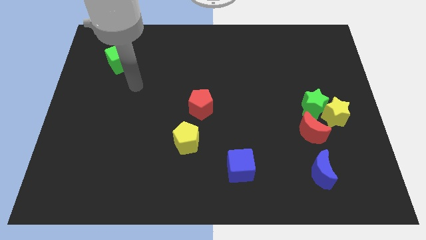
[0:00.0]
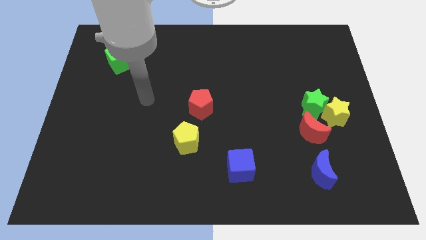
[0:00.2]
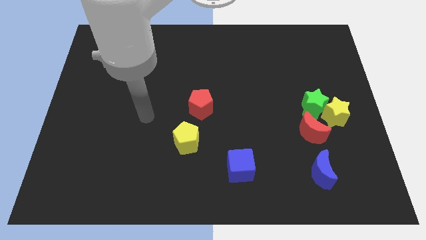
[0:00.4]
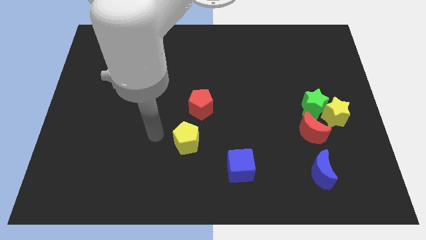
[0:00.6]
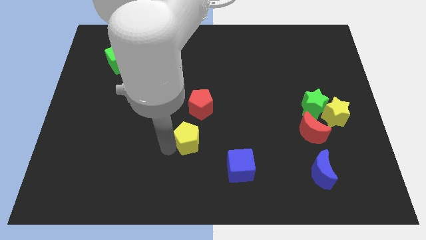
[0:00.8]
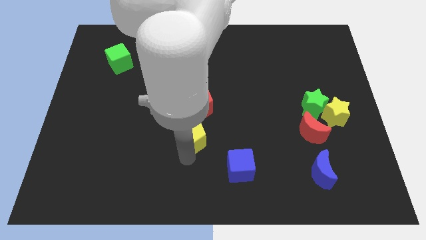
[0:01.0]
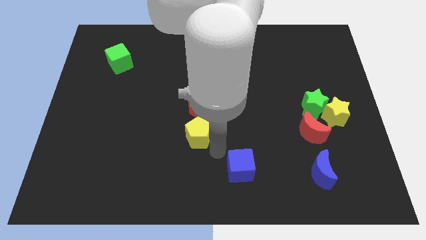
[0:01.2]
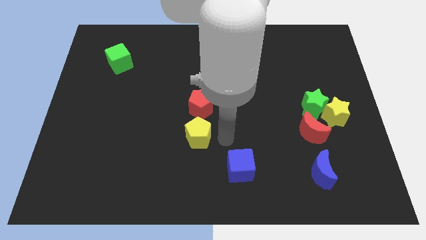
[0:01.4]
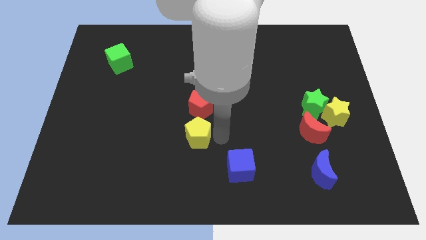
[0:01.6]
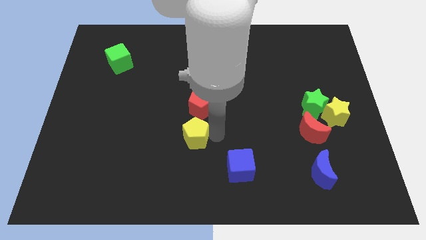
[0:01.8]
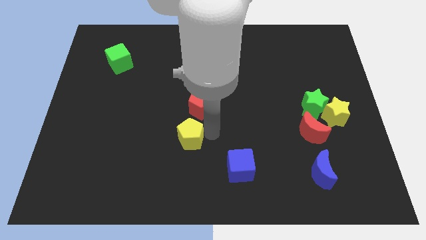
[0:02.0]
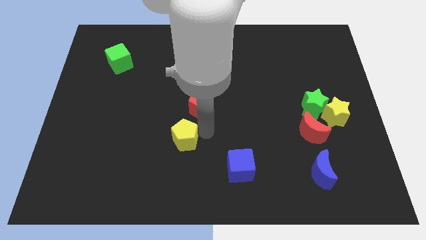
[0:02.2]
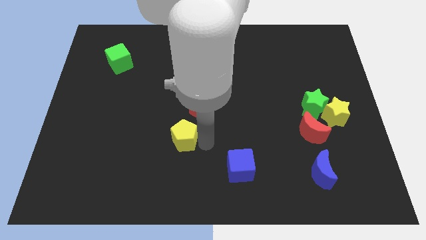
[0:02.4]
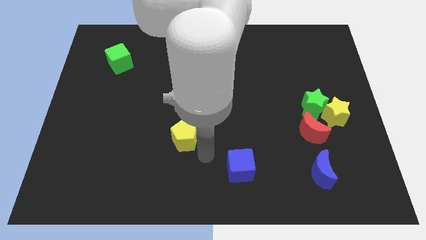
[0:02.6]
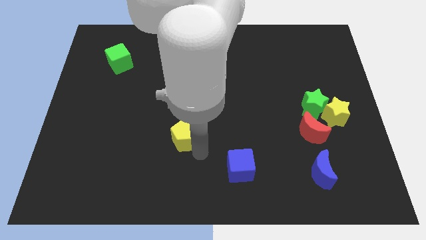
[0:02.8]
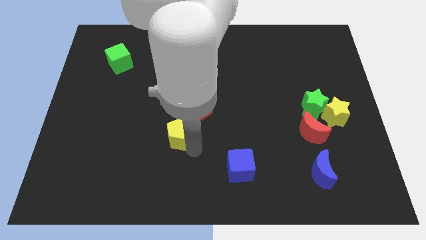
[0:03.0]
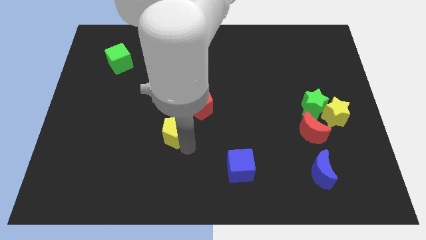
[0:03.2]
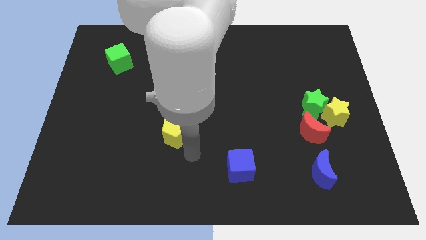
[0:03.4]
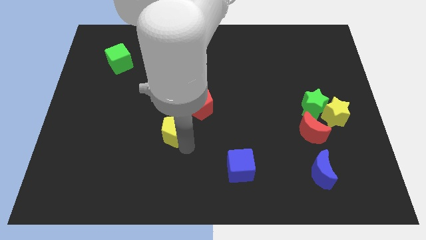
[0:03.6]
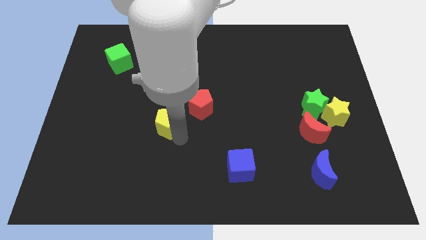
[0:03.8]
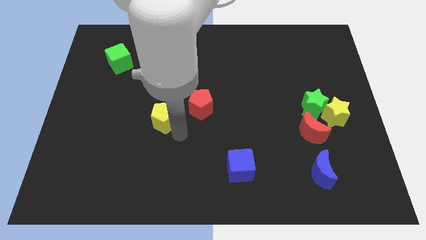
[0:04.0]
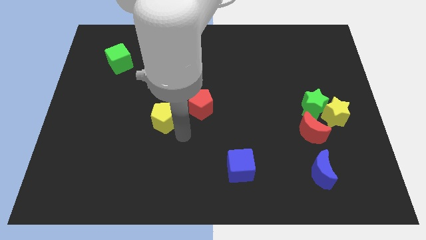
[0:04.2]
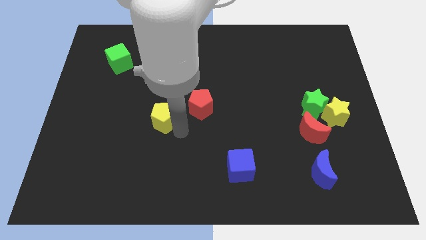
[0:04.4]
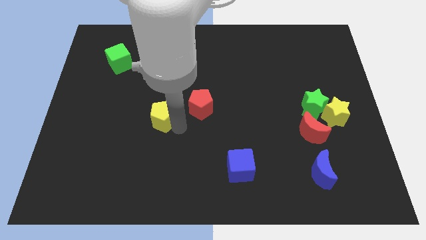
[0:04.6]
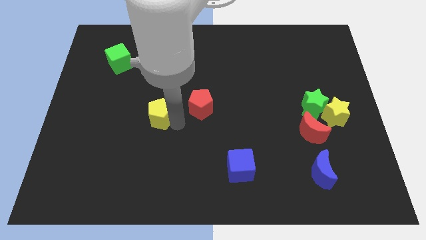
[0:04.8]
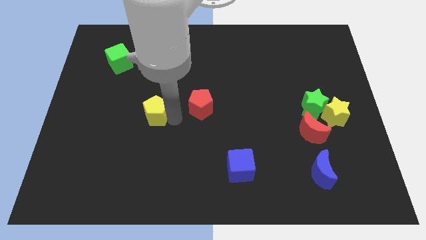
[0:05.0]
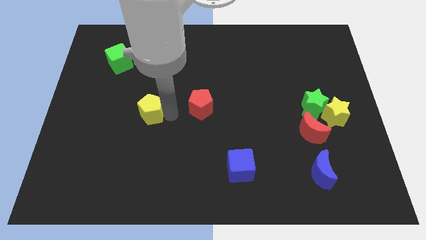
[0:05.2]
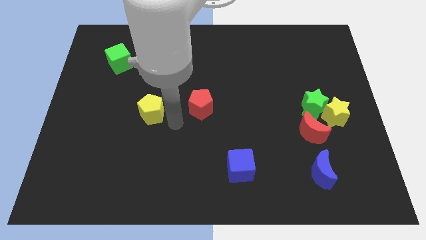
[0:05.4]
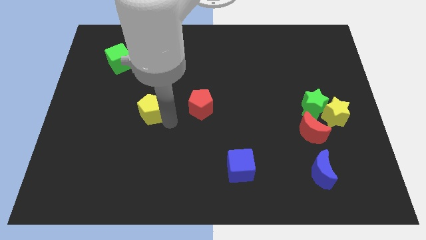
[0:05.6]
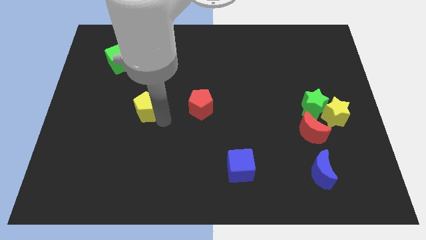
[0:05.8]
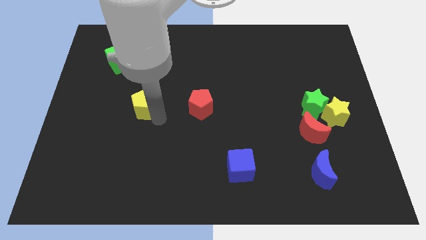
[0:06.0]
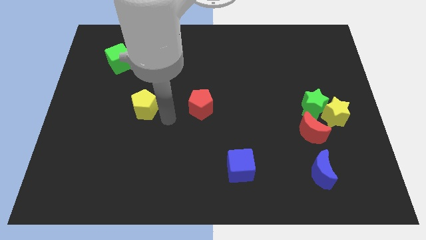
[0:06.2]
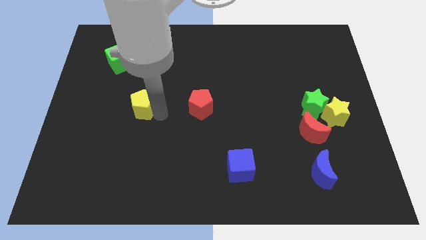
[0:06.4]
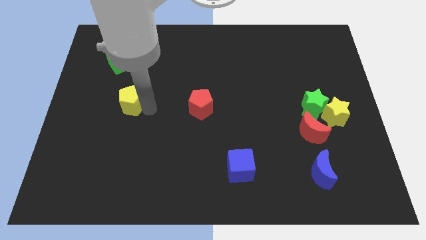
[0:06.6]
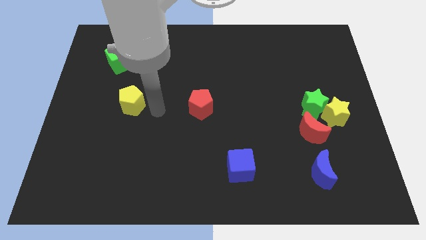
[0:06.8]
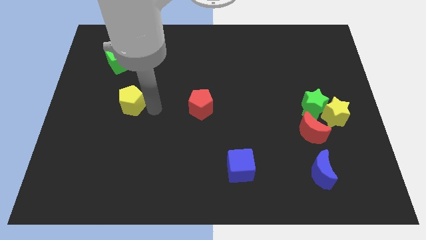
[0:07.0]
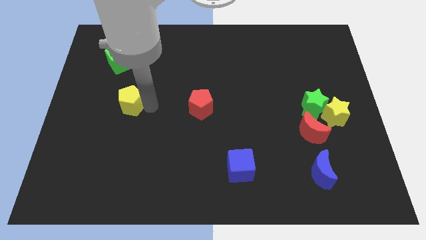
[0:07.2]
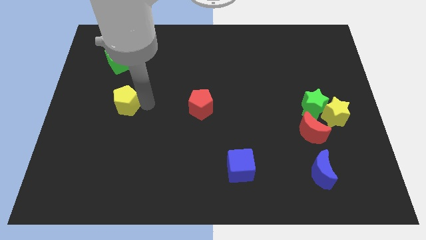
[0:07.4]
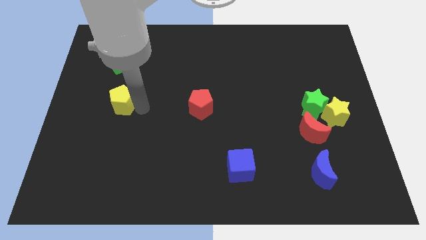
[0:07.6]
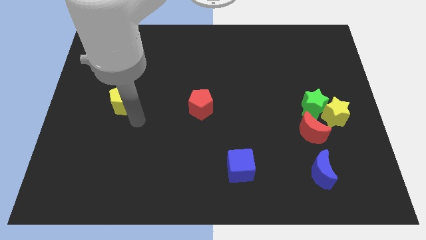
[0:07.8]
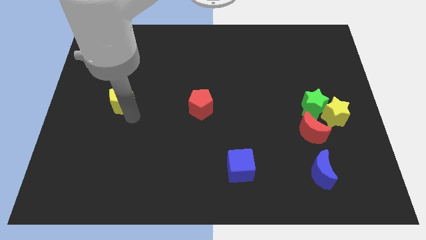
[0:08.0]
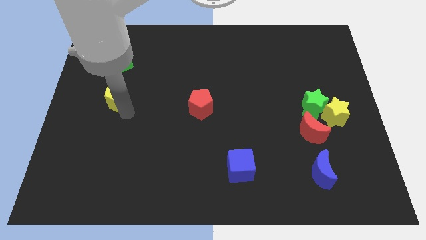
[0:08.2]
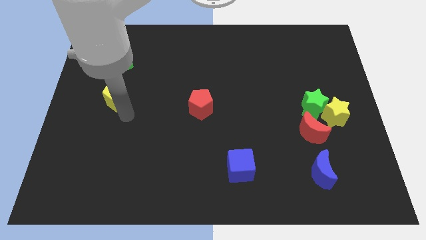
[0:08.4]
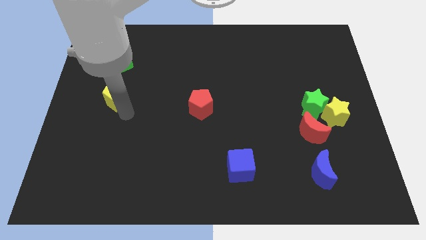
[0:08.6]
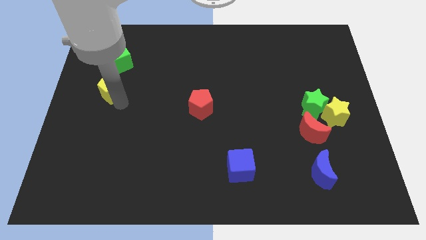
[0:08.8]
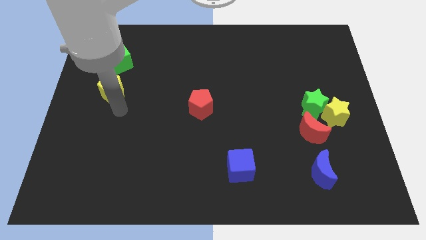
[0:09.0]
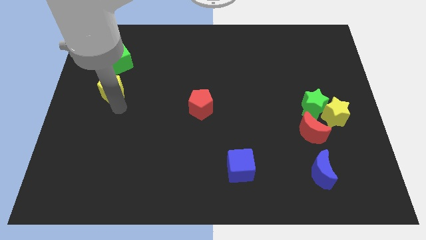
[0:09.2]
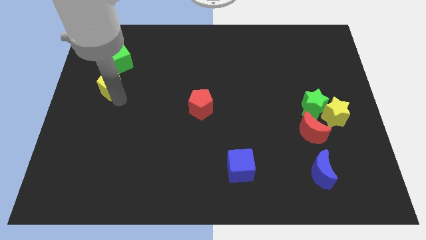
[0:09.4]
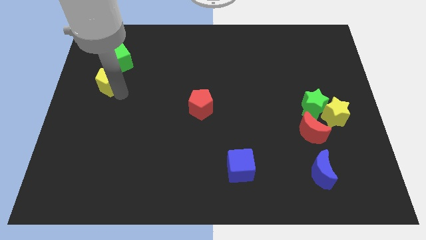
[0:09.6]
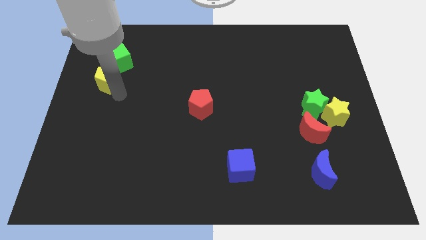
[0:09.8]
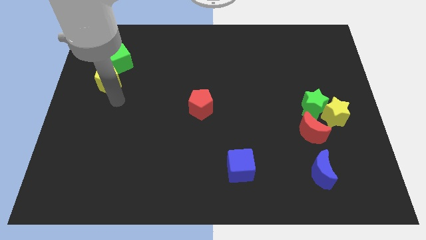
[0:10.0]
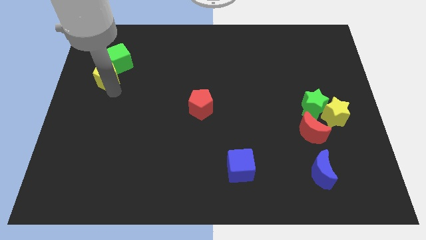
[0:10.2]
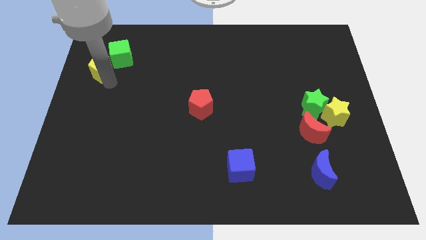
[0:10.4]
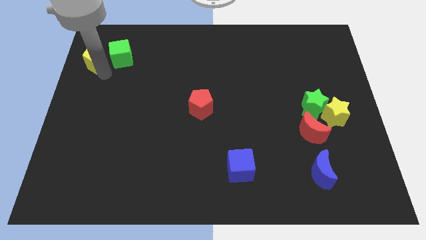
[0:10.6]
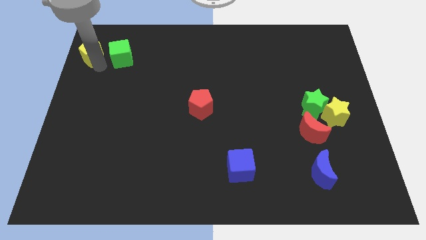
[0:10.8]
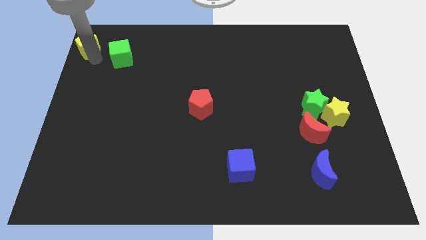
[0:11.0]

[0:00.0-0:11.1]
put the yellow pentagon to the top left corner

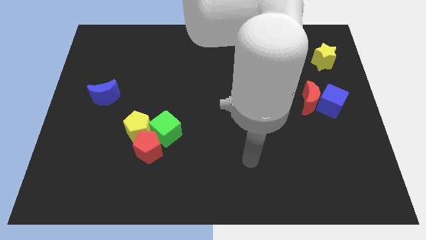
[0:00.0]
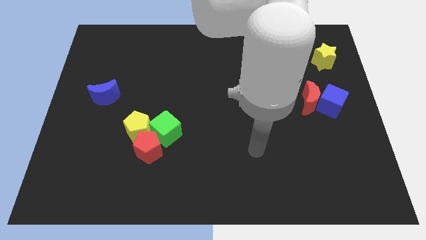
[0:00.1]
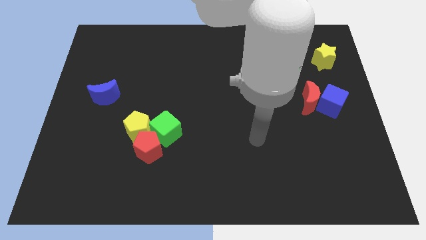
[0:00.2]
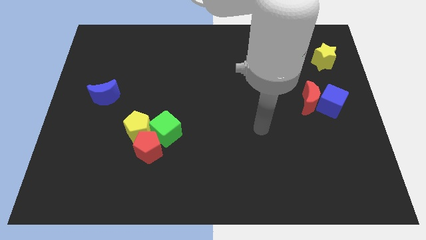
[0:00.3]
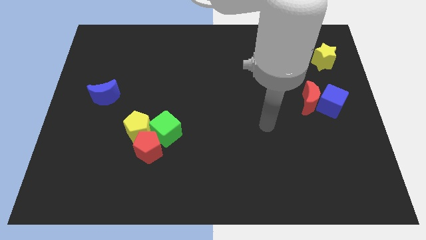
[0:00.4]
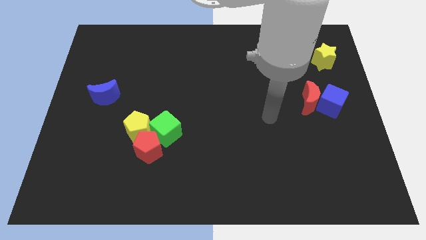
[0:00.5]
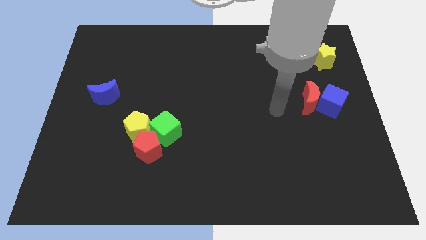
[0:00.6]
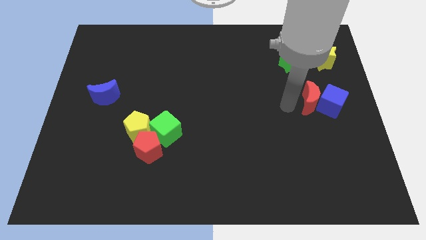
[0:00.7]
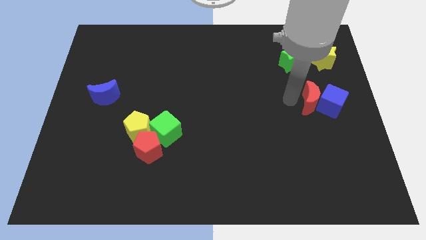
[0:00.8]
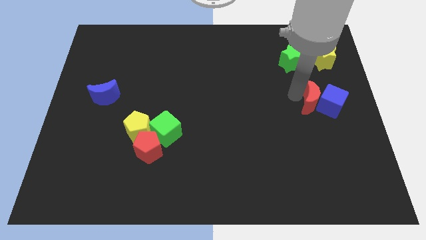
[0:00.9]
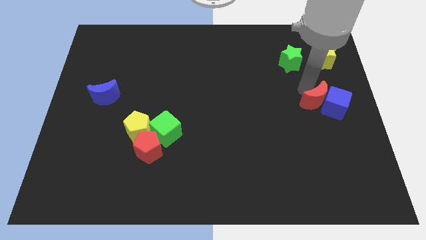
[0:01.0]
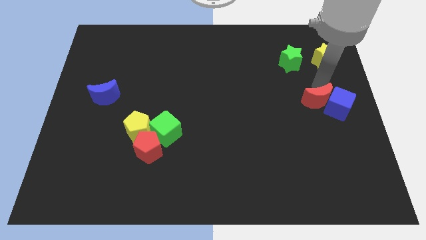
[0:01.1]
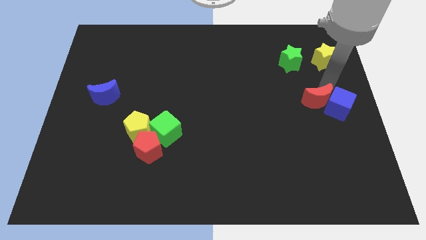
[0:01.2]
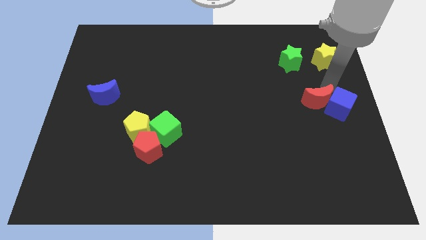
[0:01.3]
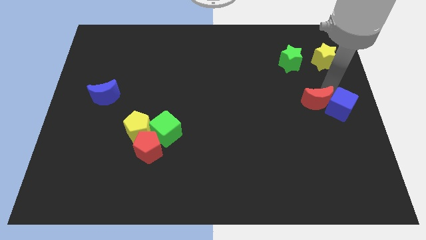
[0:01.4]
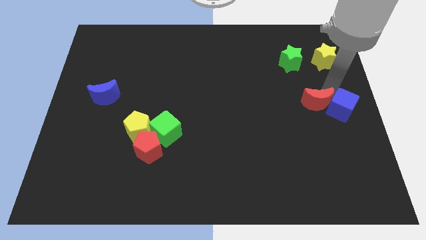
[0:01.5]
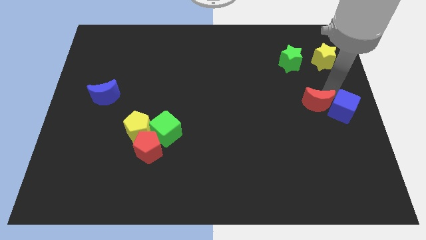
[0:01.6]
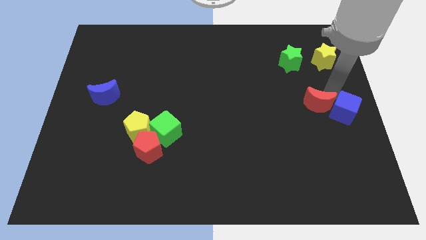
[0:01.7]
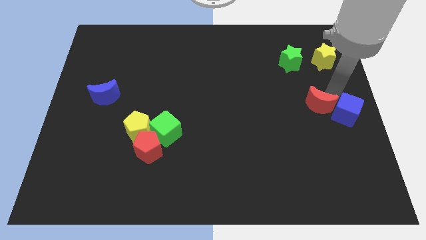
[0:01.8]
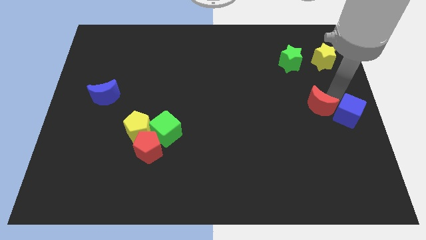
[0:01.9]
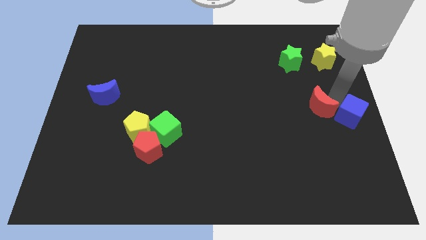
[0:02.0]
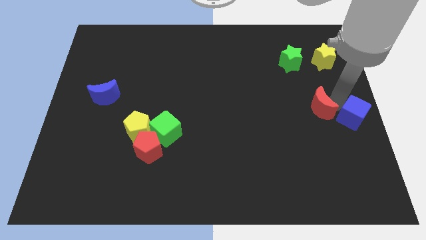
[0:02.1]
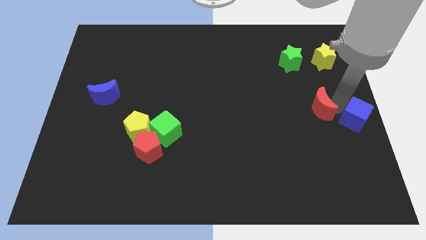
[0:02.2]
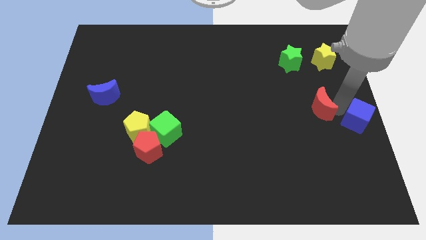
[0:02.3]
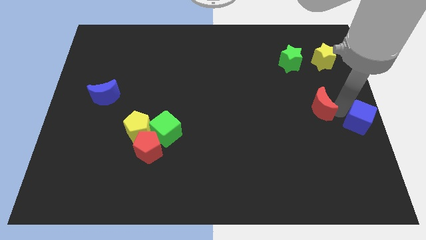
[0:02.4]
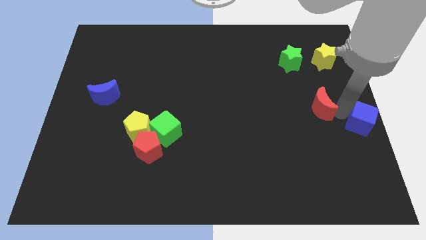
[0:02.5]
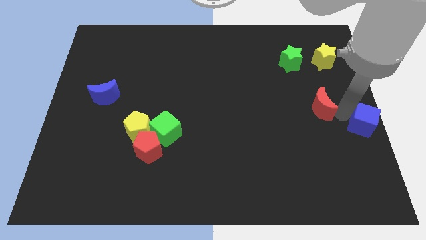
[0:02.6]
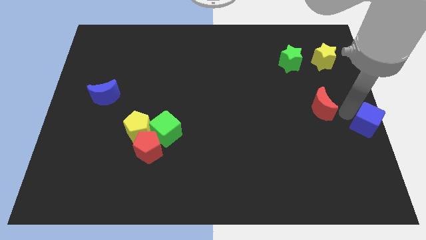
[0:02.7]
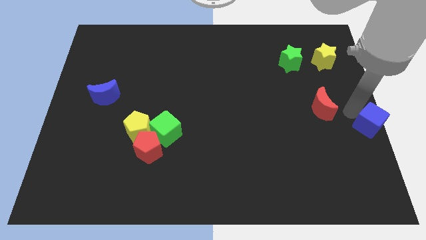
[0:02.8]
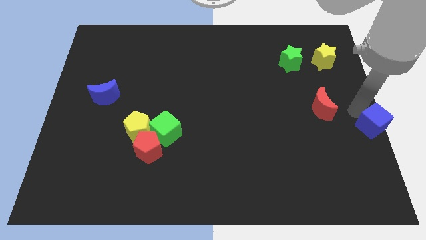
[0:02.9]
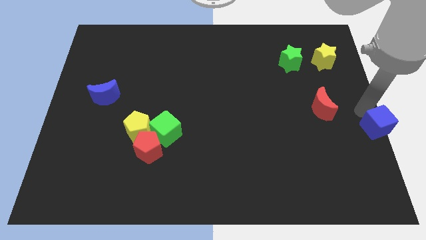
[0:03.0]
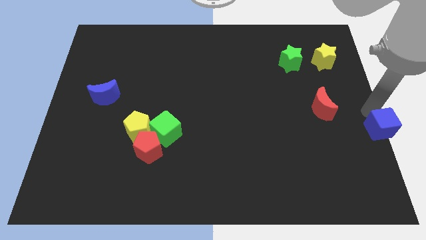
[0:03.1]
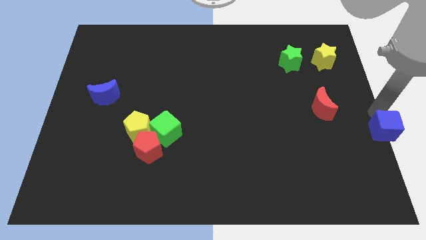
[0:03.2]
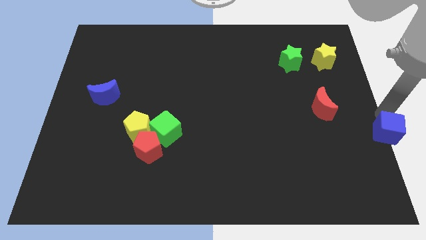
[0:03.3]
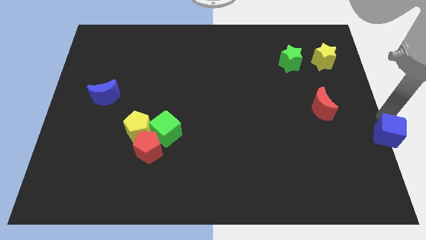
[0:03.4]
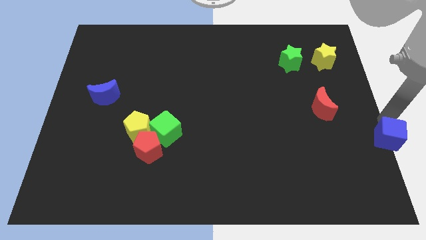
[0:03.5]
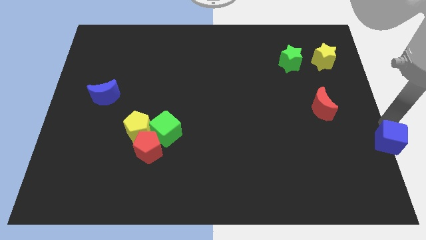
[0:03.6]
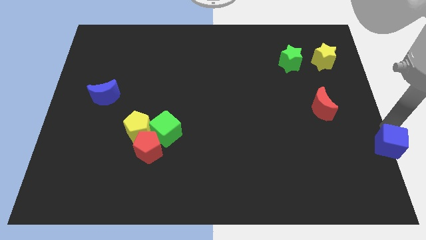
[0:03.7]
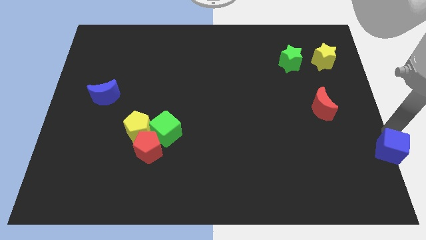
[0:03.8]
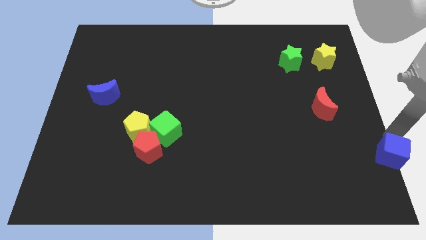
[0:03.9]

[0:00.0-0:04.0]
slide the blue cube to the bottom right of the board
